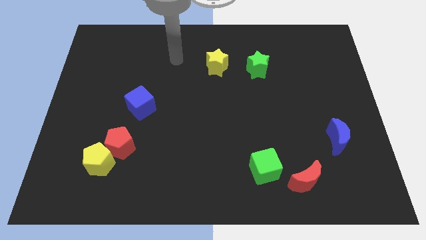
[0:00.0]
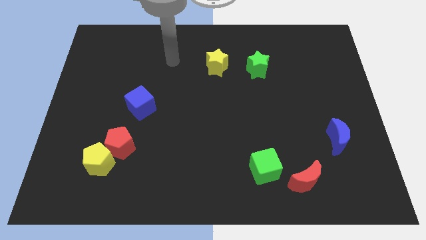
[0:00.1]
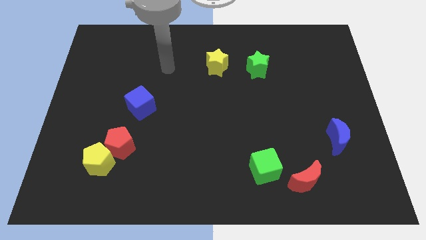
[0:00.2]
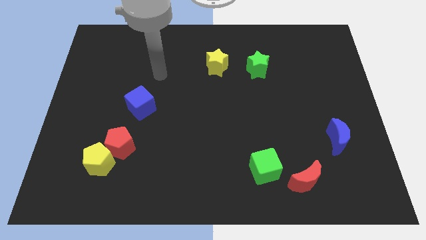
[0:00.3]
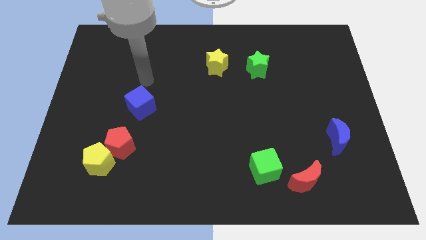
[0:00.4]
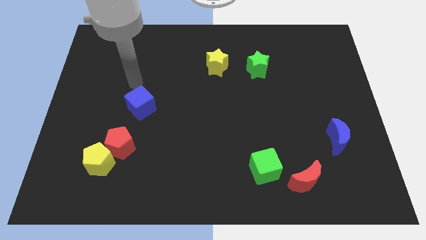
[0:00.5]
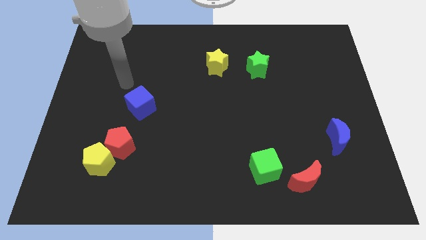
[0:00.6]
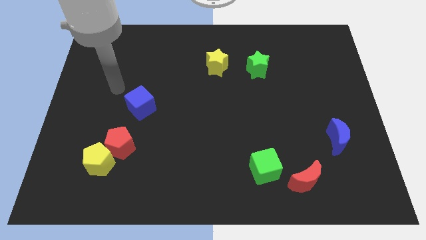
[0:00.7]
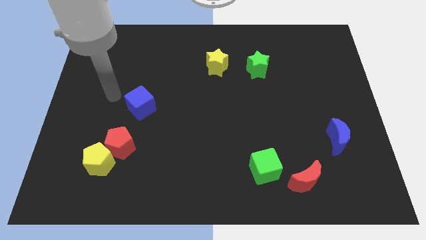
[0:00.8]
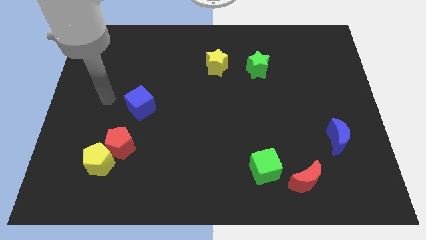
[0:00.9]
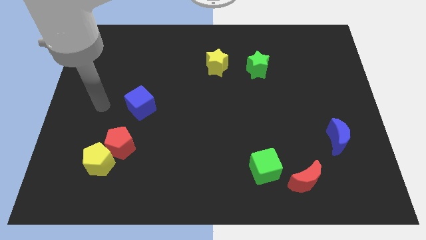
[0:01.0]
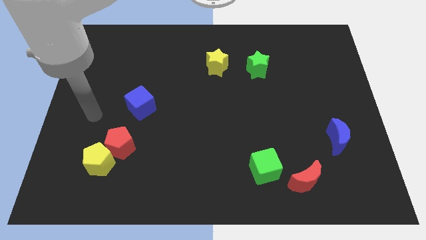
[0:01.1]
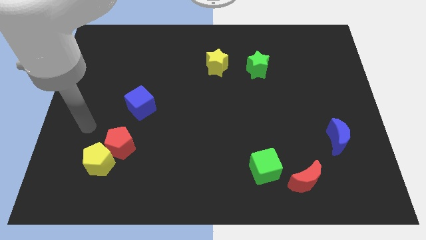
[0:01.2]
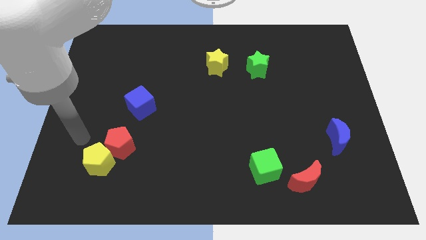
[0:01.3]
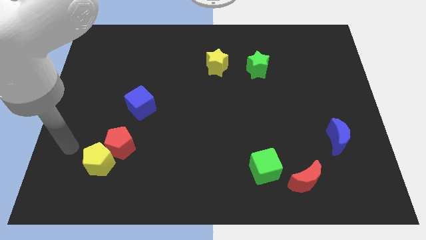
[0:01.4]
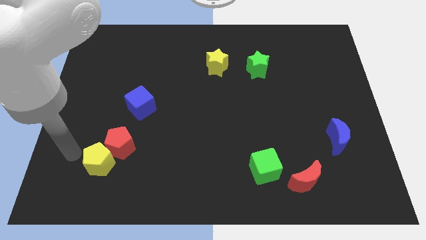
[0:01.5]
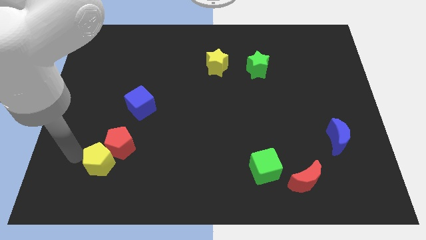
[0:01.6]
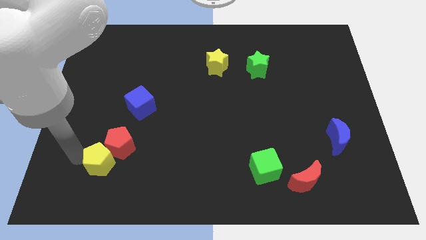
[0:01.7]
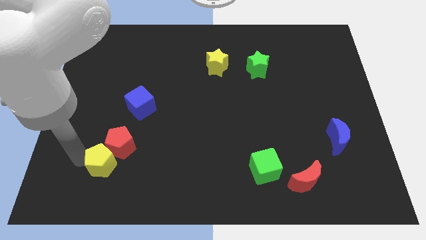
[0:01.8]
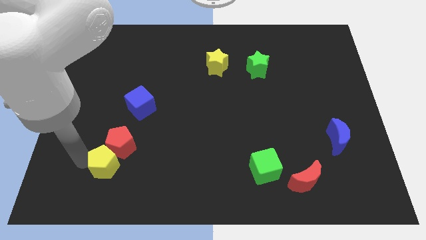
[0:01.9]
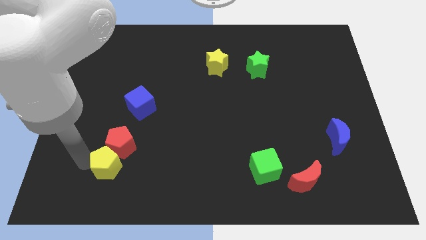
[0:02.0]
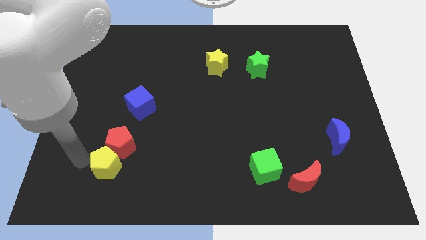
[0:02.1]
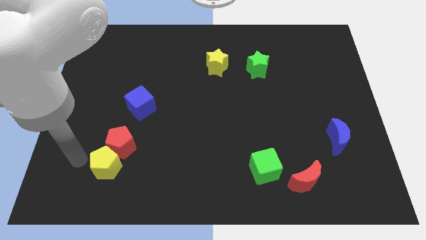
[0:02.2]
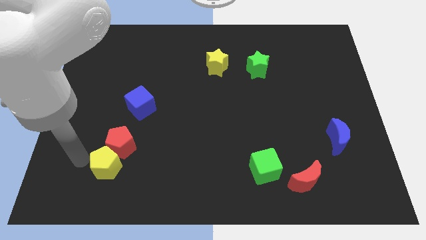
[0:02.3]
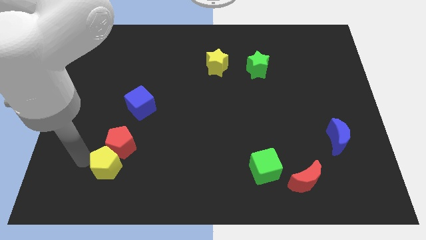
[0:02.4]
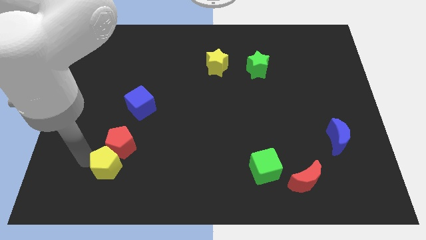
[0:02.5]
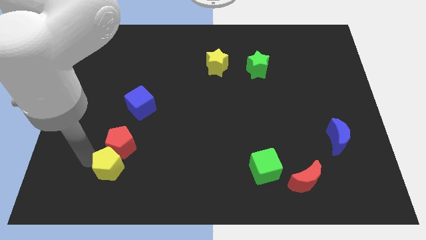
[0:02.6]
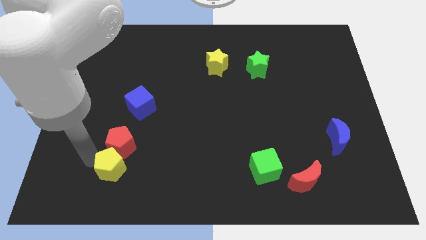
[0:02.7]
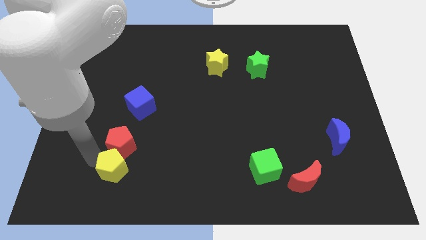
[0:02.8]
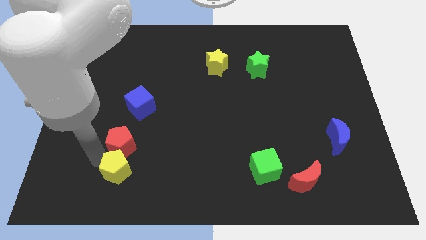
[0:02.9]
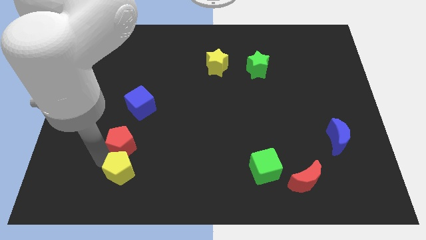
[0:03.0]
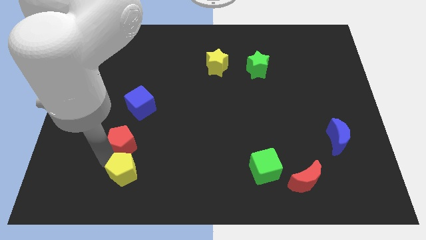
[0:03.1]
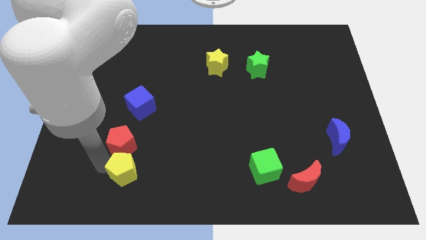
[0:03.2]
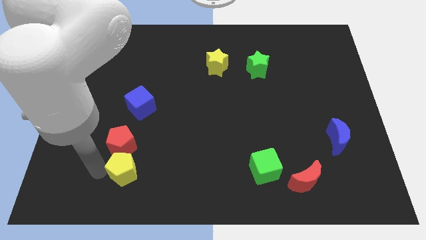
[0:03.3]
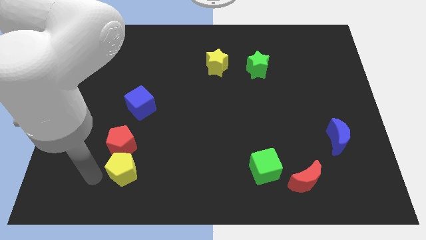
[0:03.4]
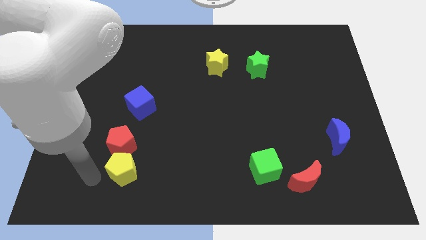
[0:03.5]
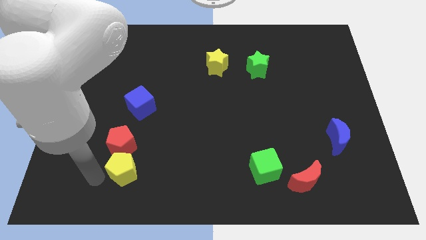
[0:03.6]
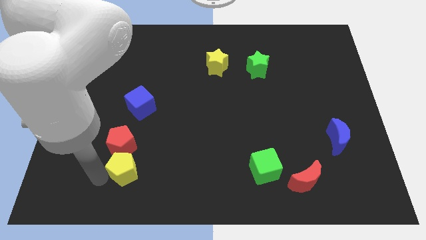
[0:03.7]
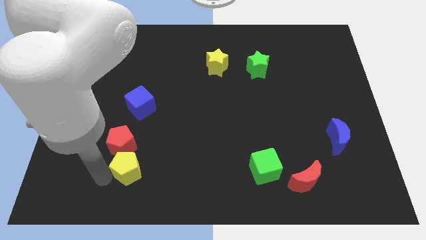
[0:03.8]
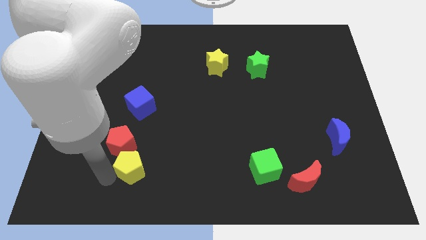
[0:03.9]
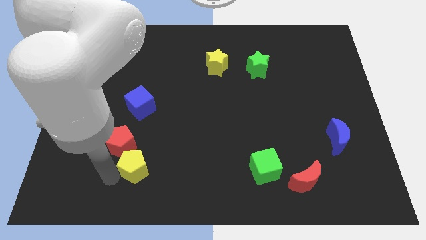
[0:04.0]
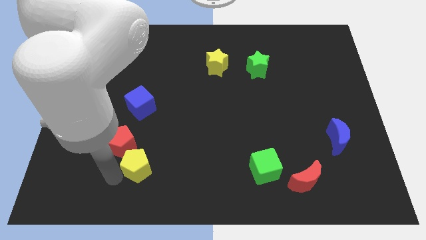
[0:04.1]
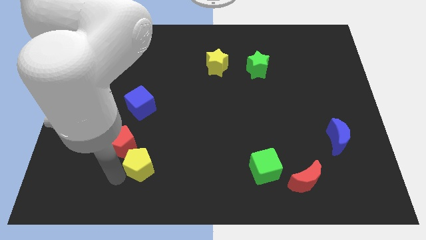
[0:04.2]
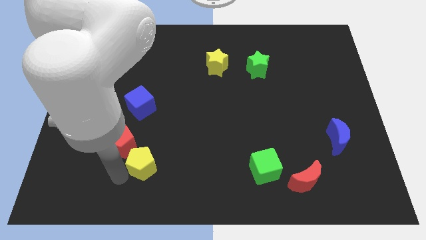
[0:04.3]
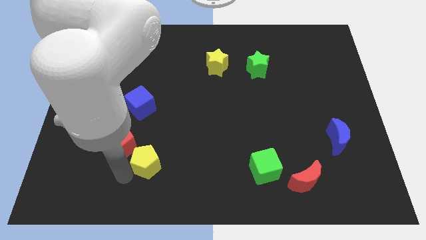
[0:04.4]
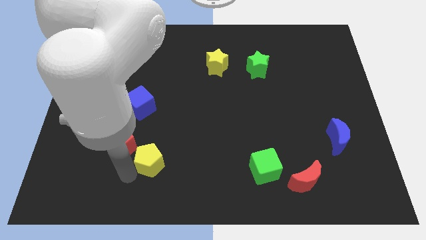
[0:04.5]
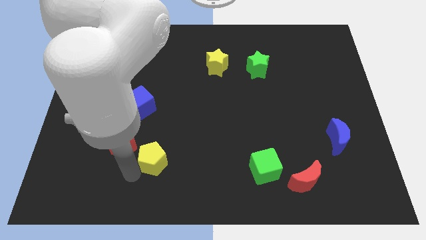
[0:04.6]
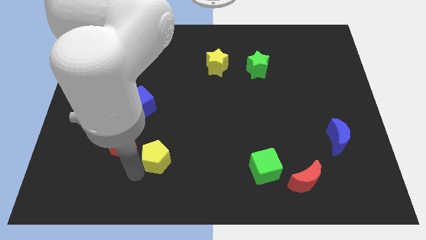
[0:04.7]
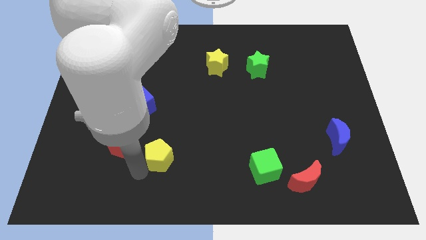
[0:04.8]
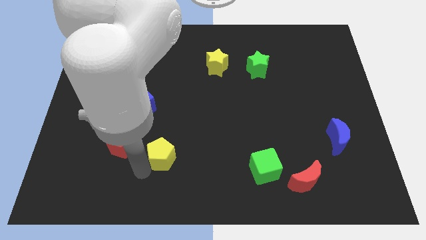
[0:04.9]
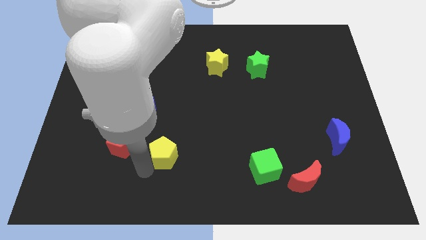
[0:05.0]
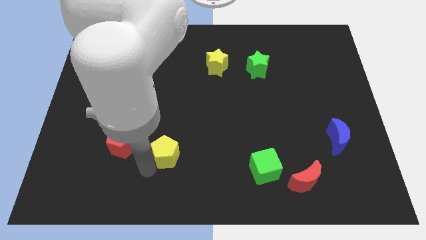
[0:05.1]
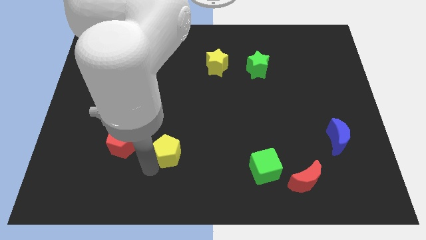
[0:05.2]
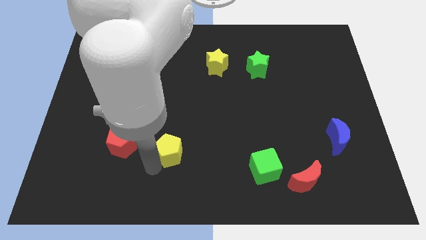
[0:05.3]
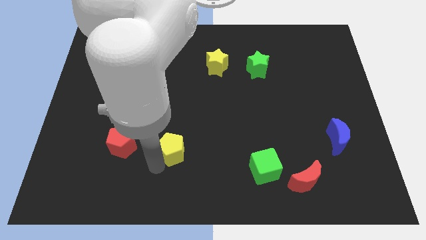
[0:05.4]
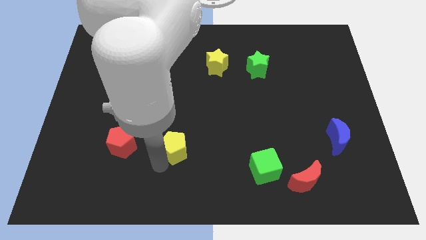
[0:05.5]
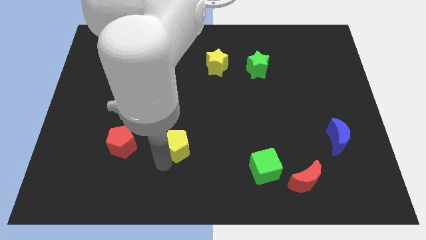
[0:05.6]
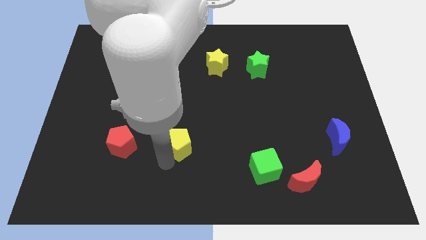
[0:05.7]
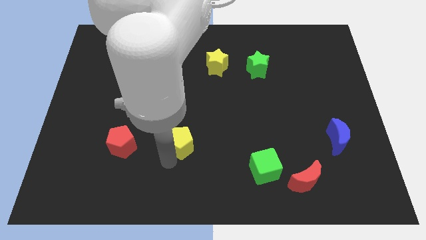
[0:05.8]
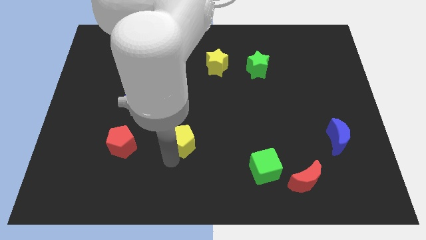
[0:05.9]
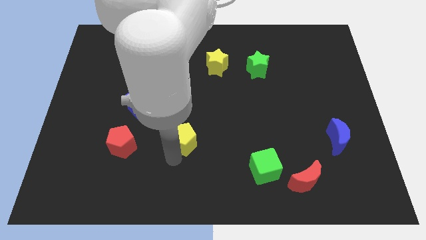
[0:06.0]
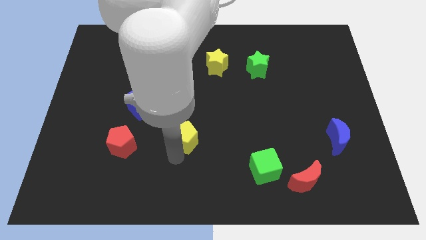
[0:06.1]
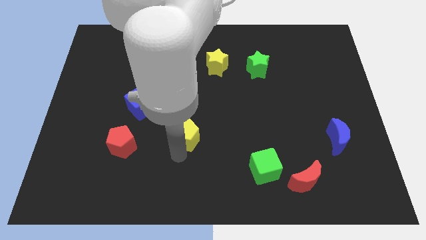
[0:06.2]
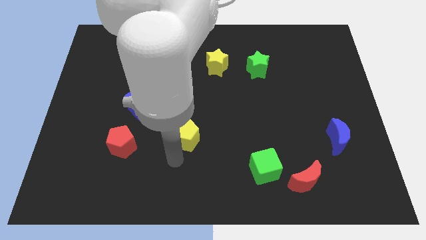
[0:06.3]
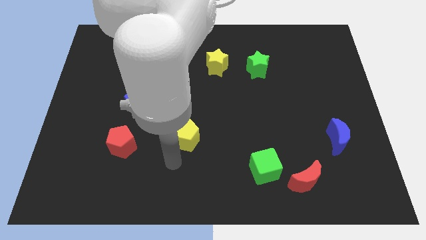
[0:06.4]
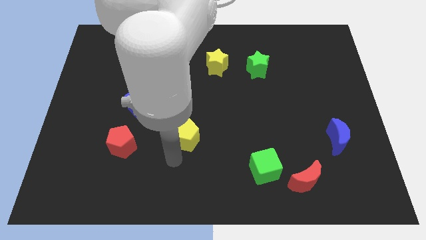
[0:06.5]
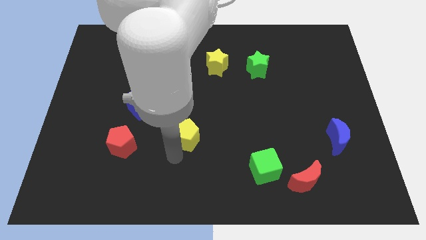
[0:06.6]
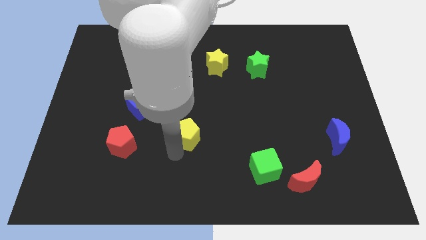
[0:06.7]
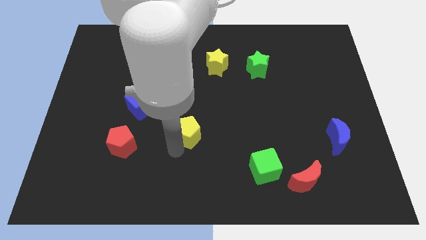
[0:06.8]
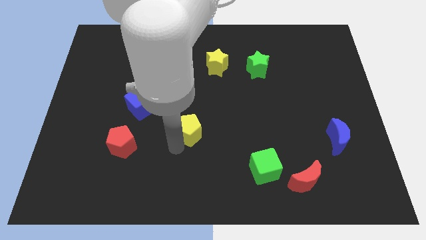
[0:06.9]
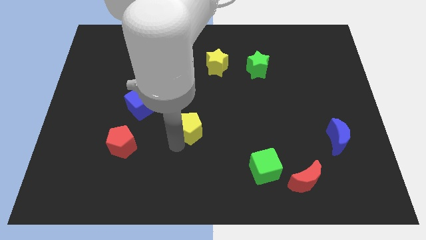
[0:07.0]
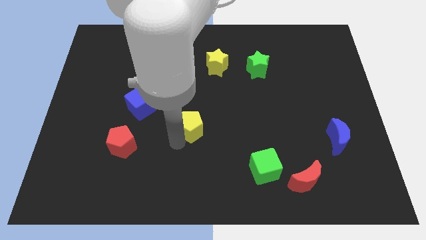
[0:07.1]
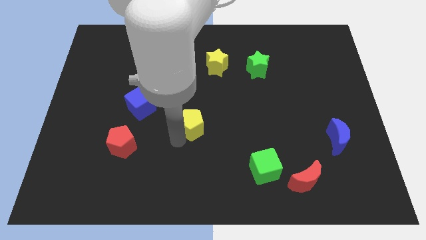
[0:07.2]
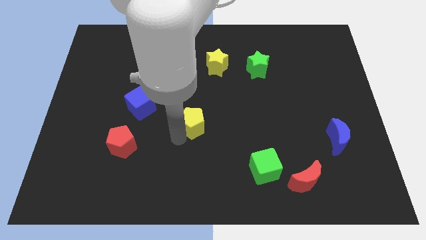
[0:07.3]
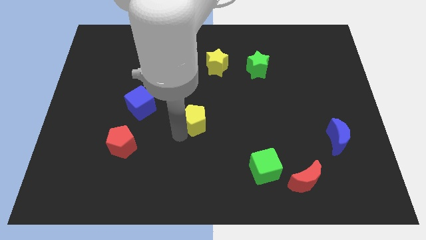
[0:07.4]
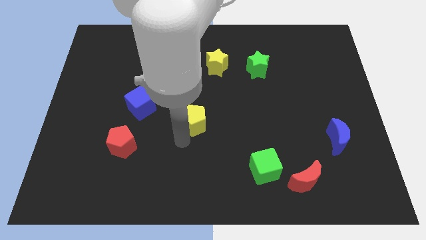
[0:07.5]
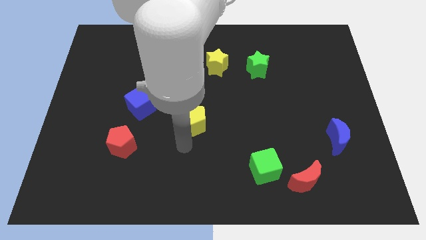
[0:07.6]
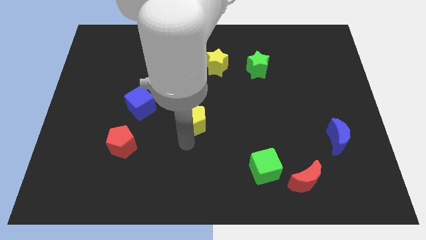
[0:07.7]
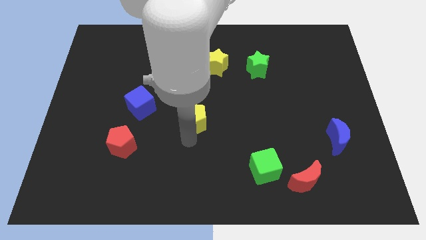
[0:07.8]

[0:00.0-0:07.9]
slide the yellow pentagon upwards and to the right
